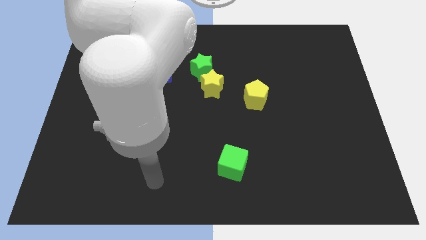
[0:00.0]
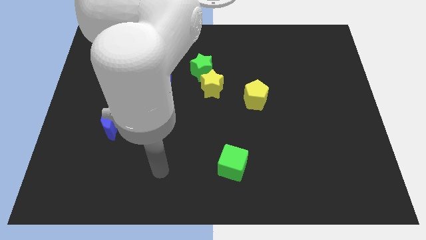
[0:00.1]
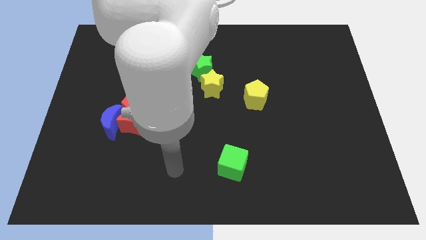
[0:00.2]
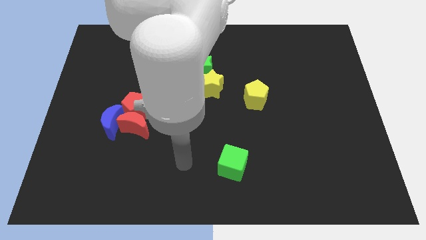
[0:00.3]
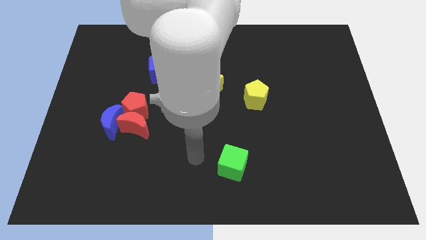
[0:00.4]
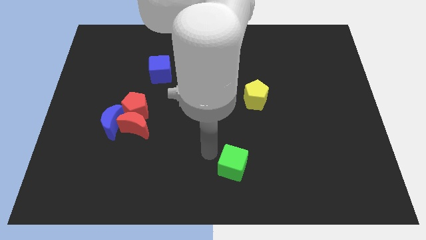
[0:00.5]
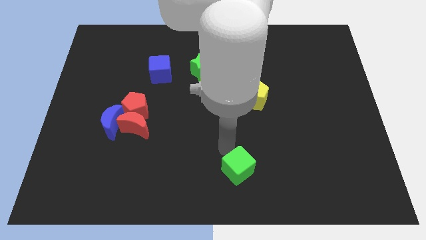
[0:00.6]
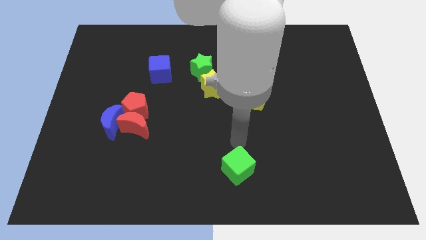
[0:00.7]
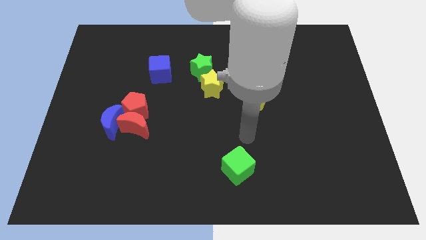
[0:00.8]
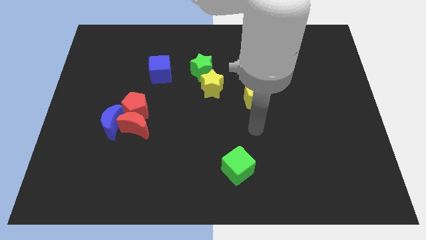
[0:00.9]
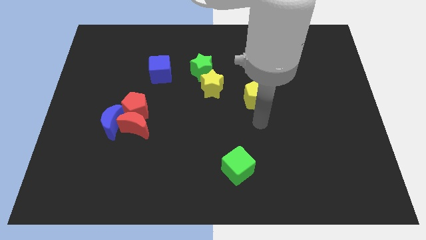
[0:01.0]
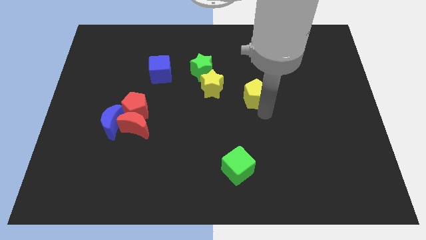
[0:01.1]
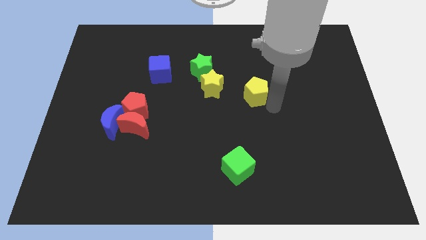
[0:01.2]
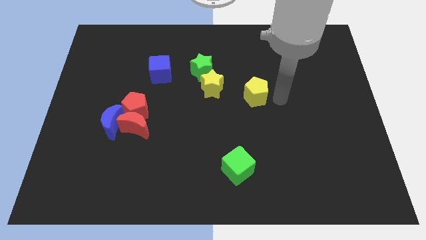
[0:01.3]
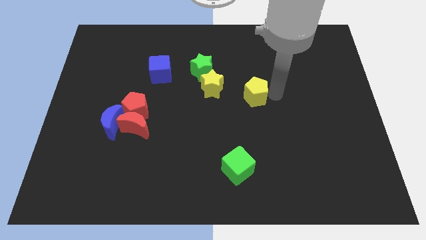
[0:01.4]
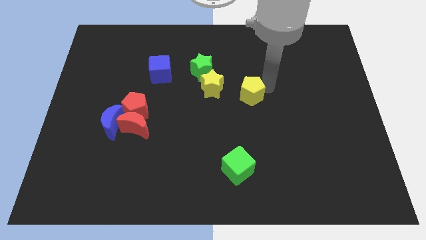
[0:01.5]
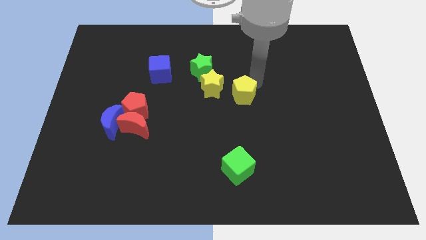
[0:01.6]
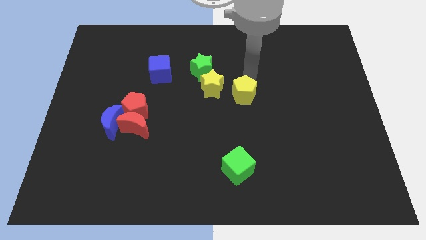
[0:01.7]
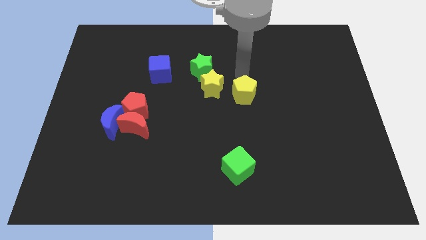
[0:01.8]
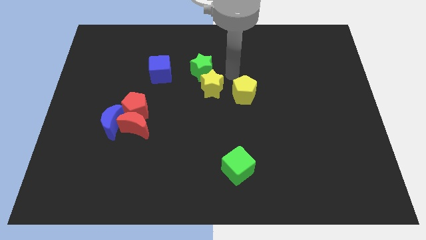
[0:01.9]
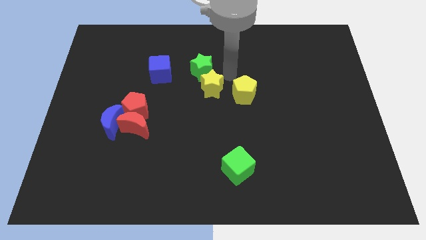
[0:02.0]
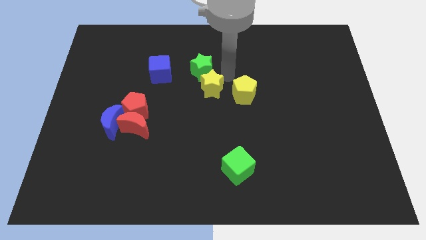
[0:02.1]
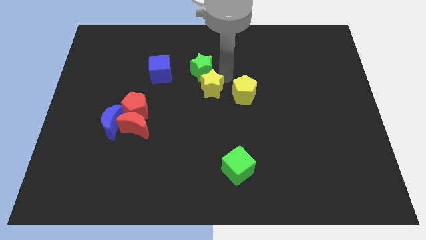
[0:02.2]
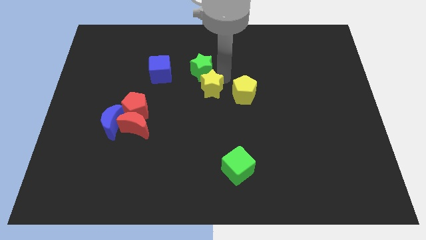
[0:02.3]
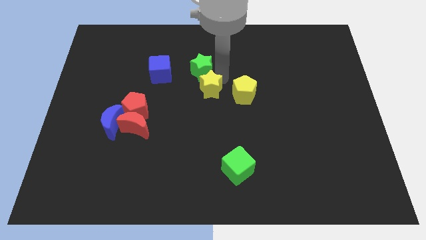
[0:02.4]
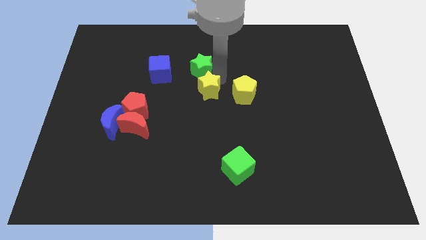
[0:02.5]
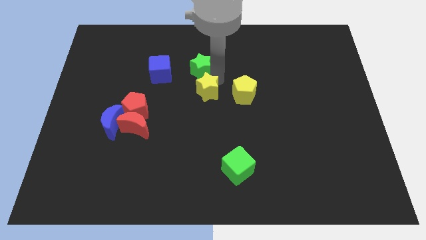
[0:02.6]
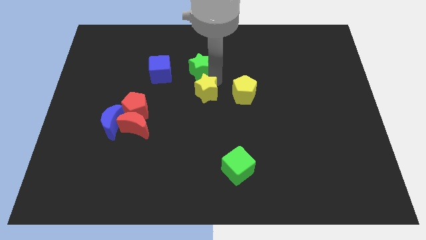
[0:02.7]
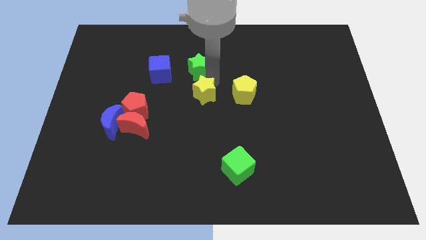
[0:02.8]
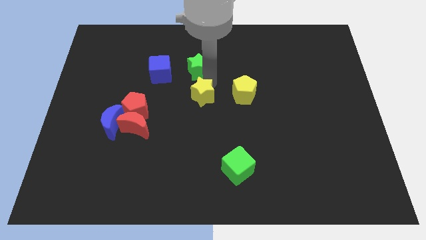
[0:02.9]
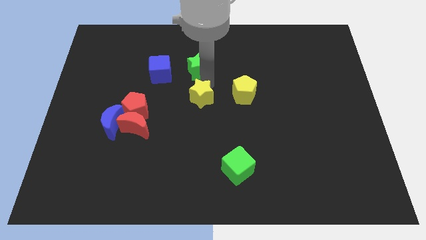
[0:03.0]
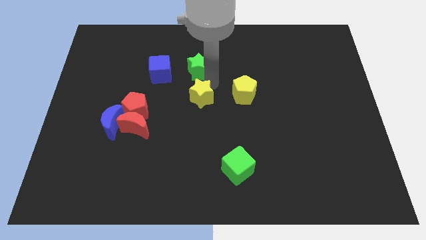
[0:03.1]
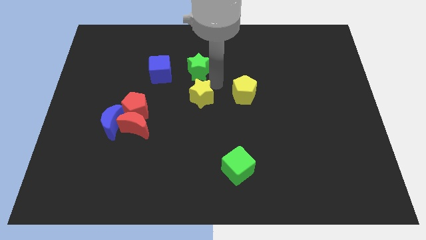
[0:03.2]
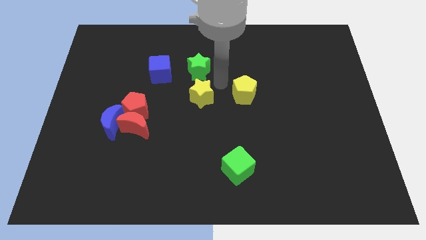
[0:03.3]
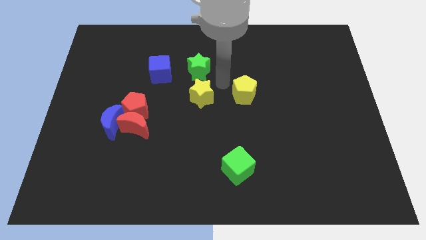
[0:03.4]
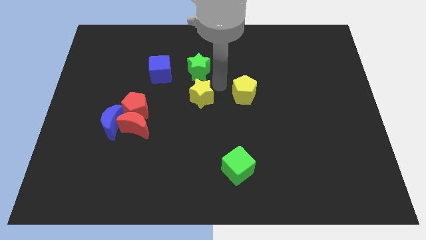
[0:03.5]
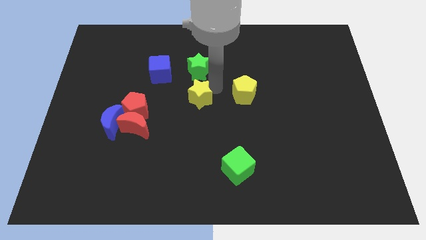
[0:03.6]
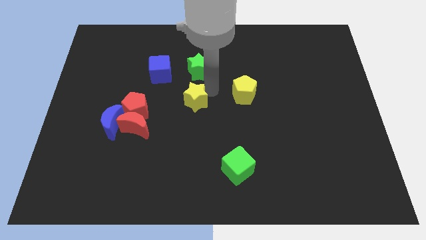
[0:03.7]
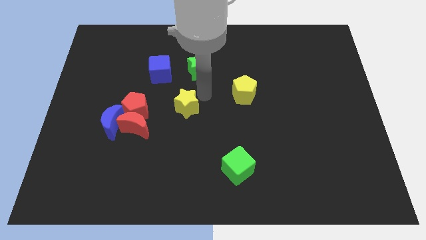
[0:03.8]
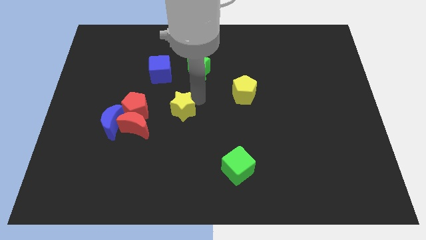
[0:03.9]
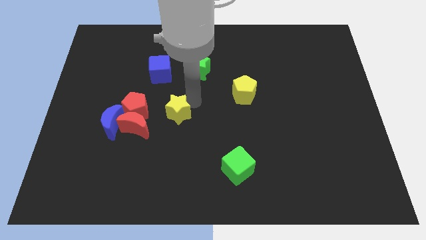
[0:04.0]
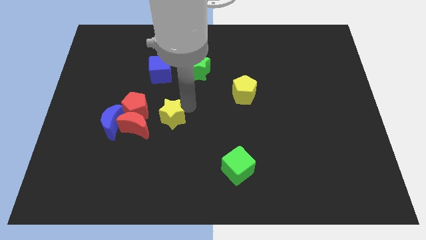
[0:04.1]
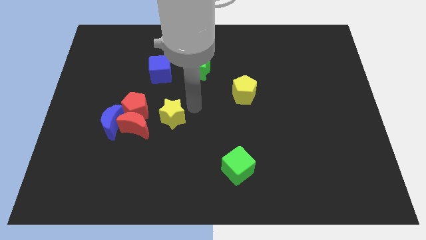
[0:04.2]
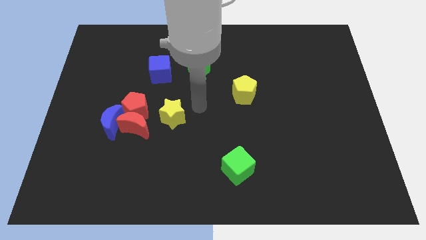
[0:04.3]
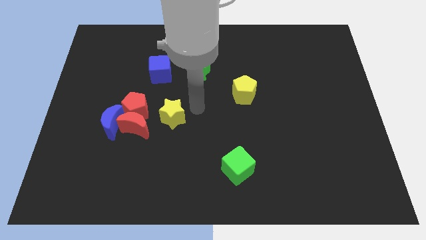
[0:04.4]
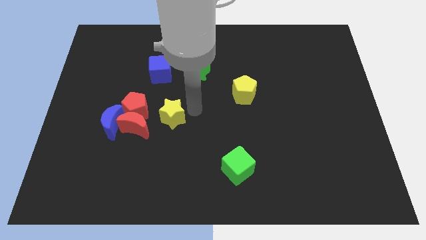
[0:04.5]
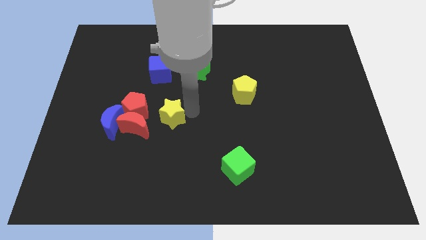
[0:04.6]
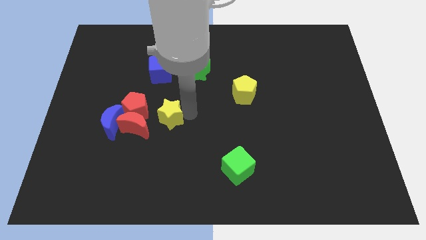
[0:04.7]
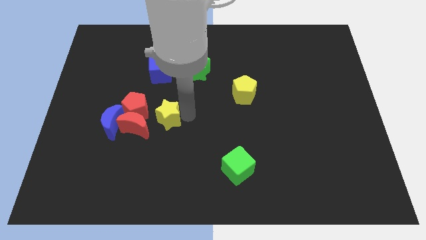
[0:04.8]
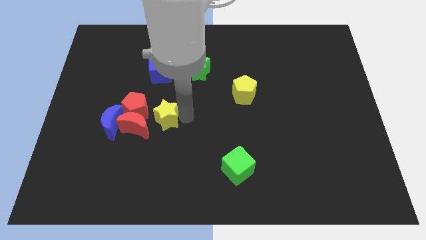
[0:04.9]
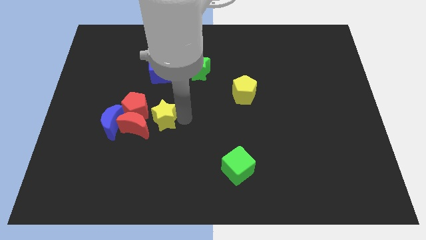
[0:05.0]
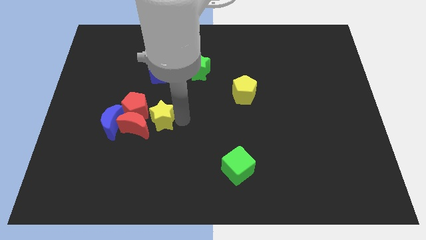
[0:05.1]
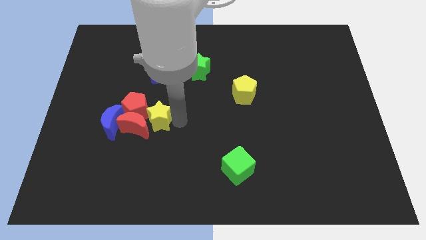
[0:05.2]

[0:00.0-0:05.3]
put the yellow star next to the red moon
